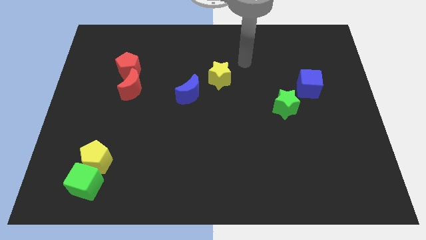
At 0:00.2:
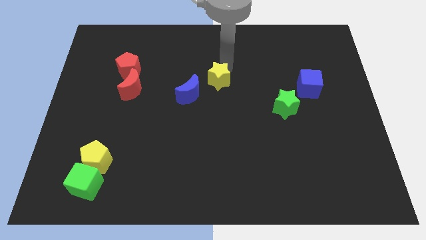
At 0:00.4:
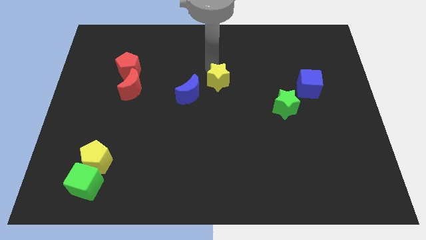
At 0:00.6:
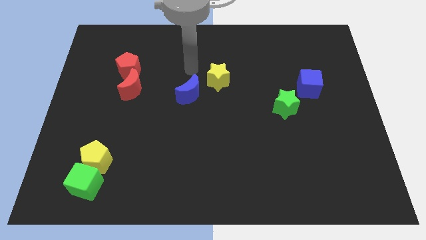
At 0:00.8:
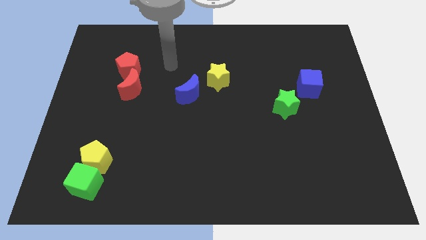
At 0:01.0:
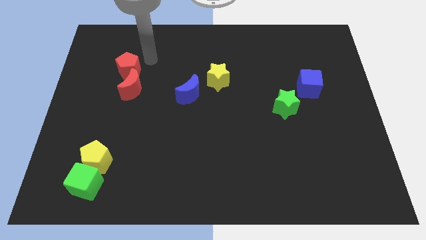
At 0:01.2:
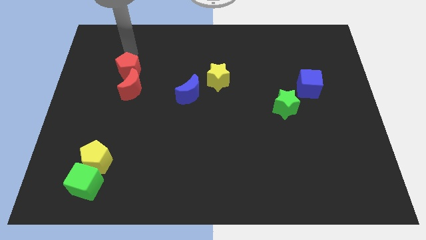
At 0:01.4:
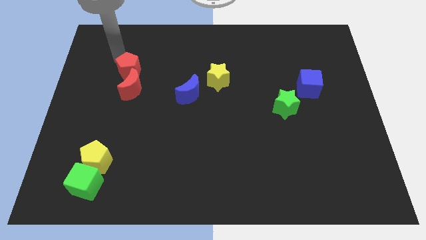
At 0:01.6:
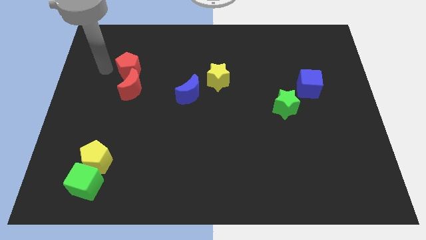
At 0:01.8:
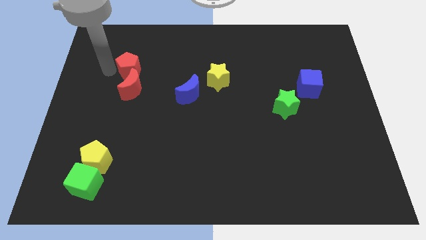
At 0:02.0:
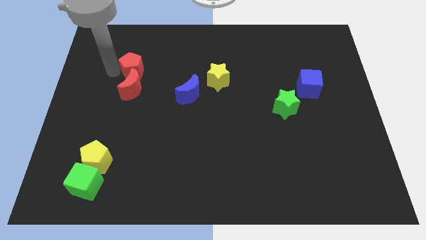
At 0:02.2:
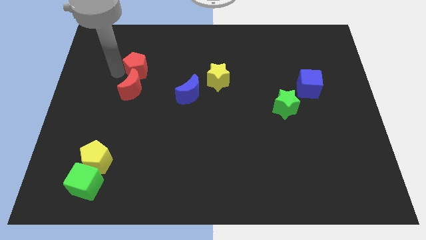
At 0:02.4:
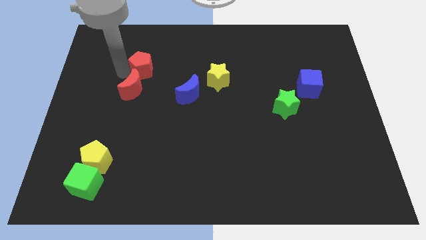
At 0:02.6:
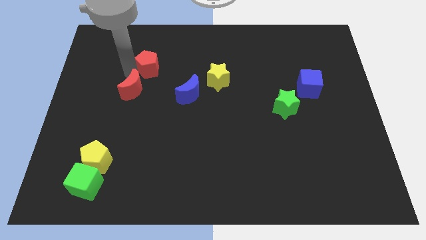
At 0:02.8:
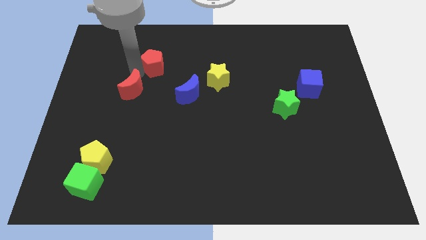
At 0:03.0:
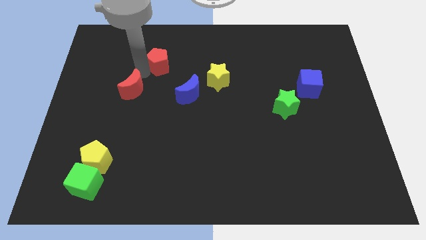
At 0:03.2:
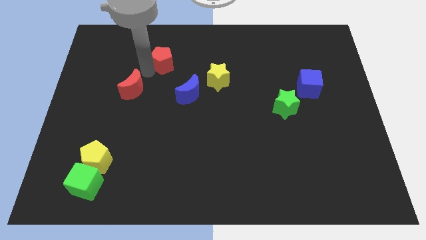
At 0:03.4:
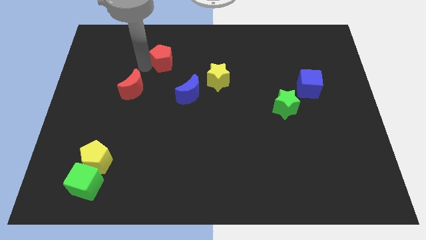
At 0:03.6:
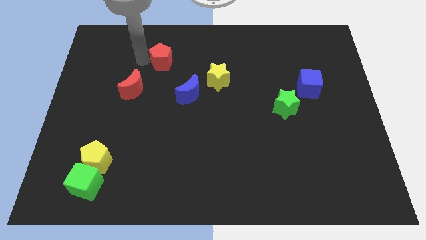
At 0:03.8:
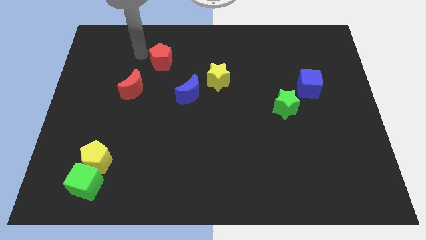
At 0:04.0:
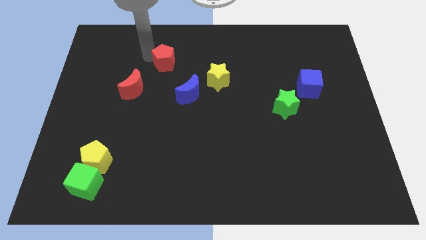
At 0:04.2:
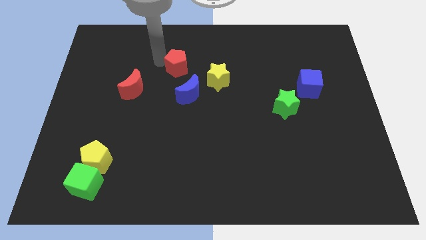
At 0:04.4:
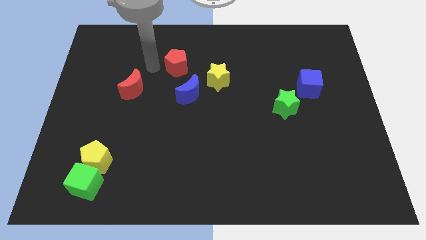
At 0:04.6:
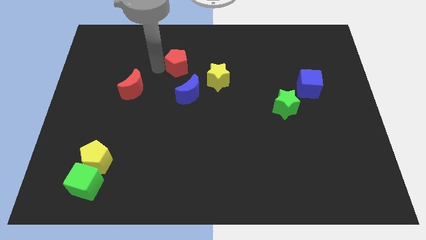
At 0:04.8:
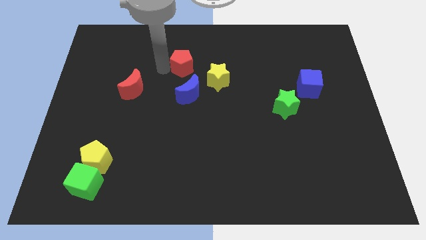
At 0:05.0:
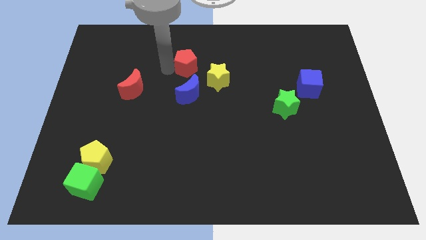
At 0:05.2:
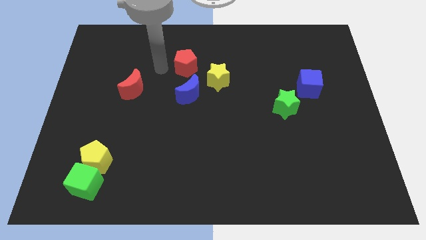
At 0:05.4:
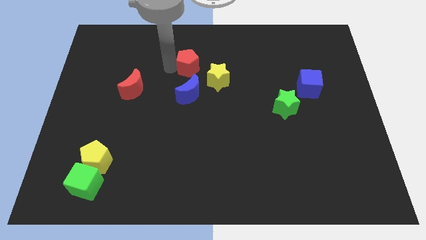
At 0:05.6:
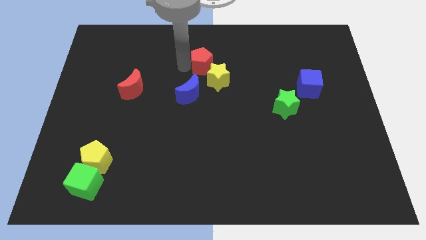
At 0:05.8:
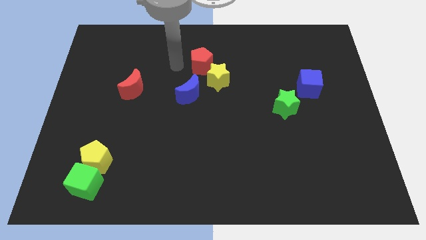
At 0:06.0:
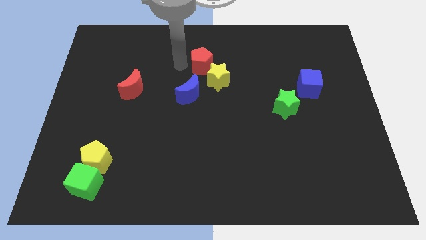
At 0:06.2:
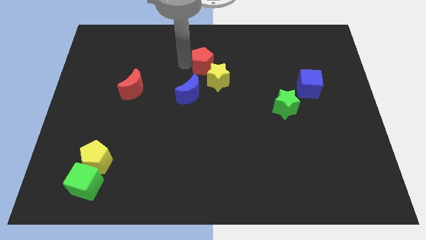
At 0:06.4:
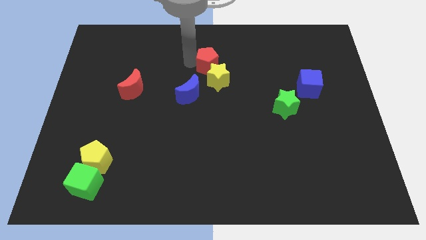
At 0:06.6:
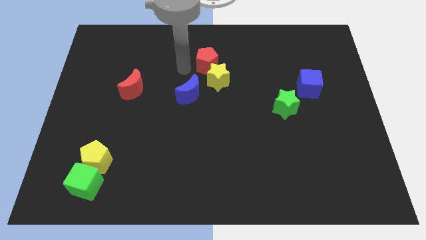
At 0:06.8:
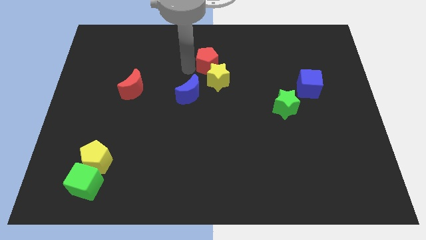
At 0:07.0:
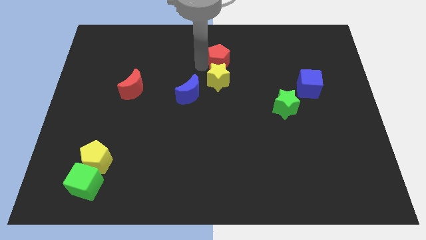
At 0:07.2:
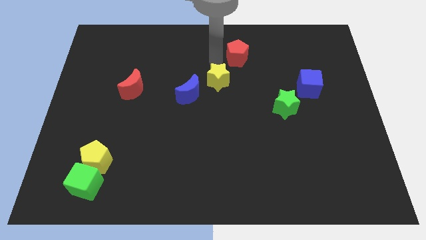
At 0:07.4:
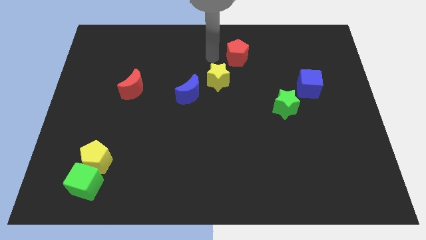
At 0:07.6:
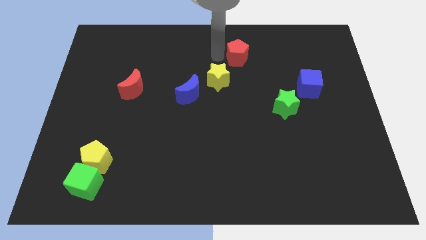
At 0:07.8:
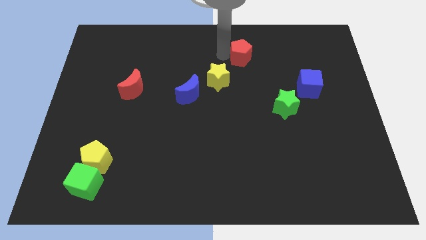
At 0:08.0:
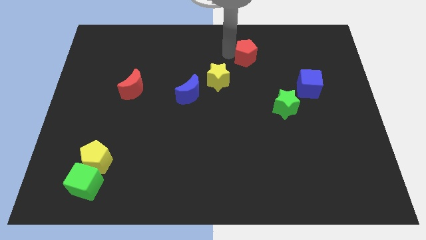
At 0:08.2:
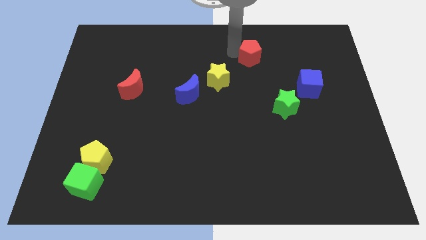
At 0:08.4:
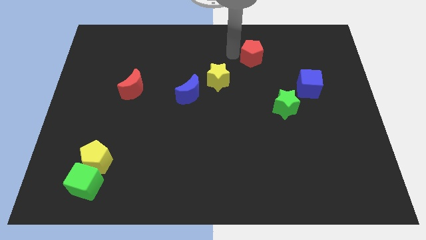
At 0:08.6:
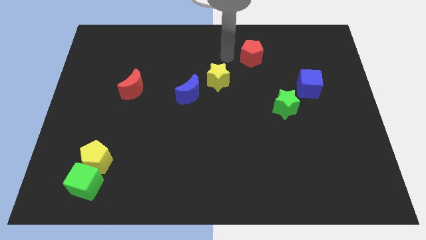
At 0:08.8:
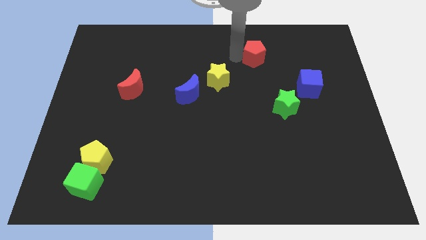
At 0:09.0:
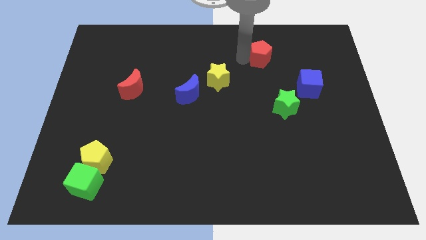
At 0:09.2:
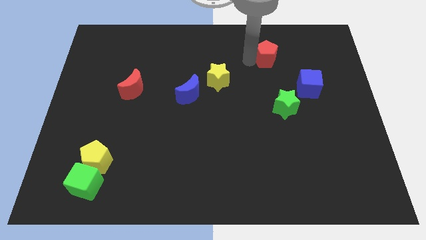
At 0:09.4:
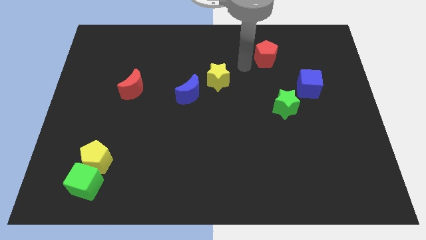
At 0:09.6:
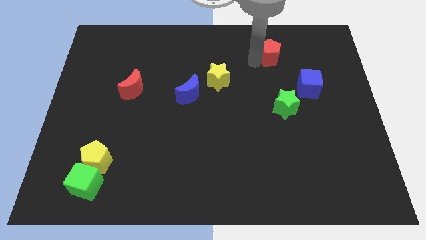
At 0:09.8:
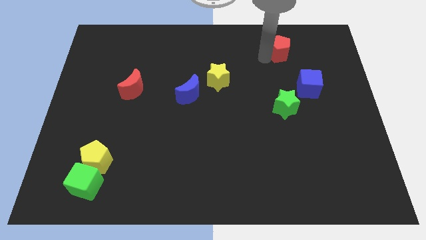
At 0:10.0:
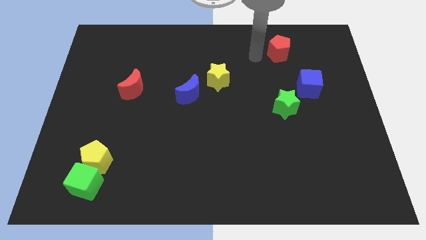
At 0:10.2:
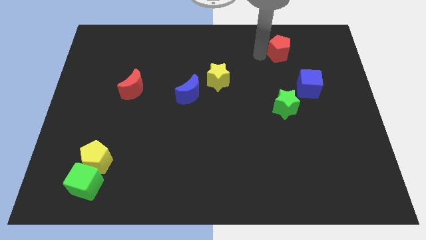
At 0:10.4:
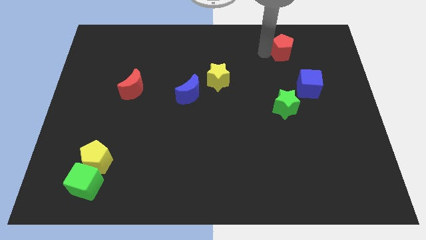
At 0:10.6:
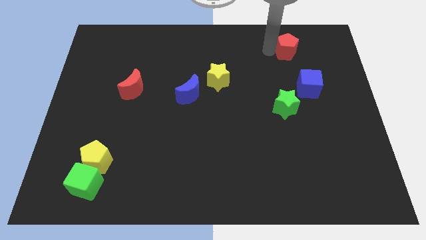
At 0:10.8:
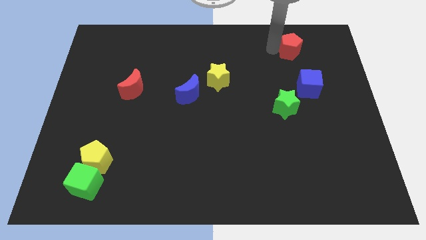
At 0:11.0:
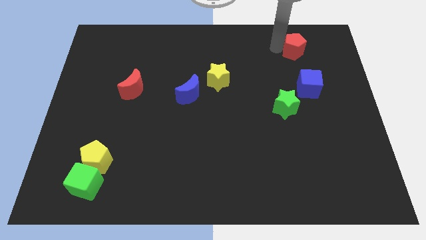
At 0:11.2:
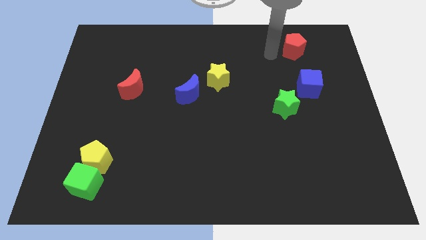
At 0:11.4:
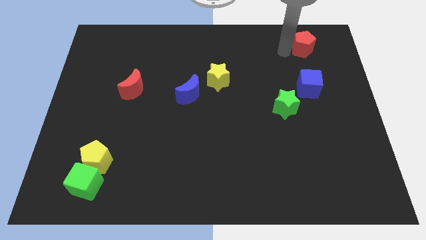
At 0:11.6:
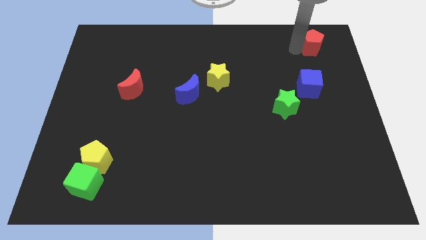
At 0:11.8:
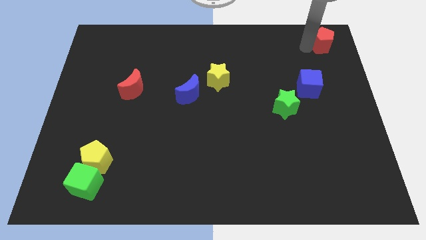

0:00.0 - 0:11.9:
push the red pentagon to the top right

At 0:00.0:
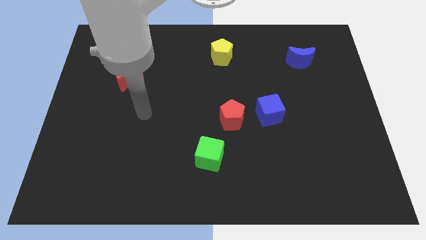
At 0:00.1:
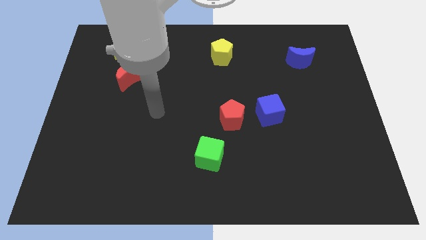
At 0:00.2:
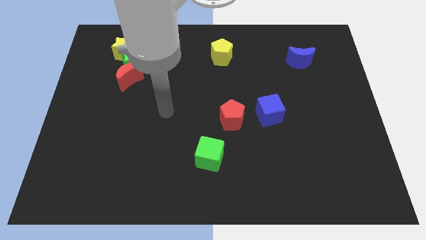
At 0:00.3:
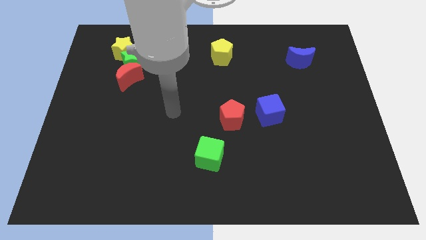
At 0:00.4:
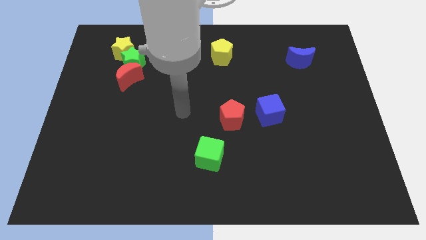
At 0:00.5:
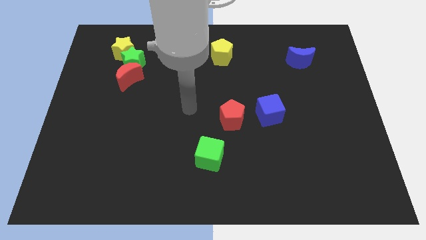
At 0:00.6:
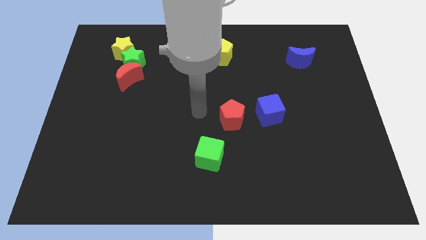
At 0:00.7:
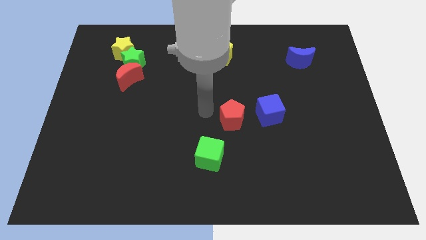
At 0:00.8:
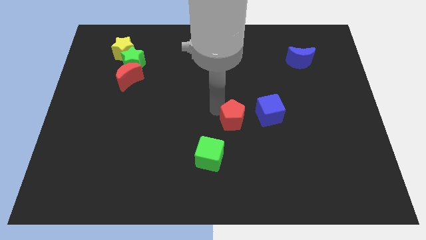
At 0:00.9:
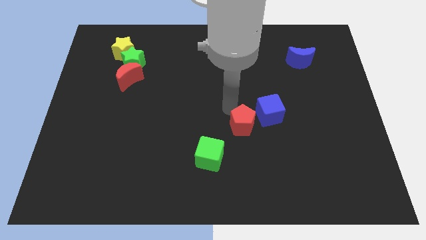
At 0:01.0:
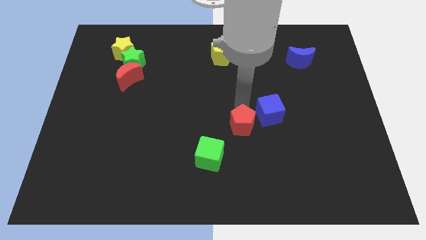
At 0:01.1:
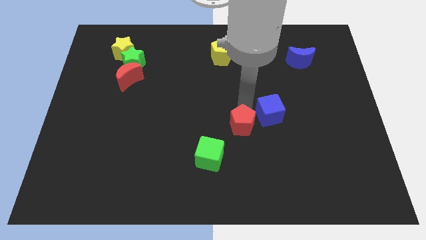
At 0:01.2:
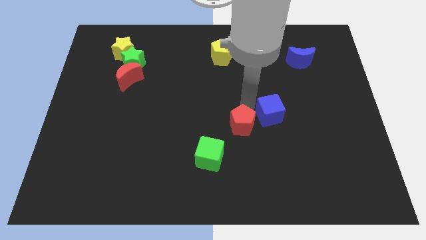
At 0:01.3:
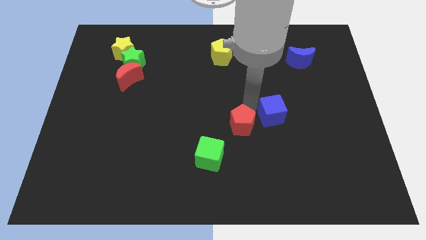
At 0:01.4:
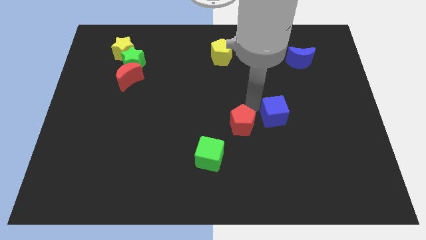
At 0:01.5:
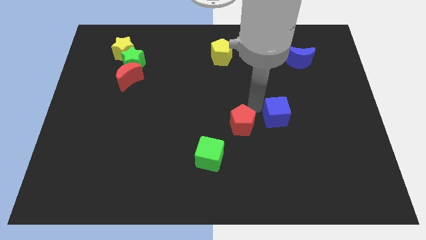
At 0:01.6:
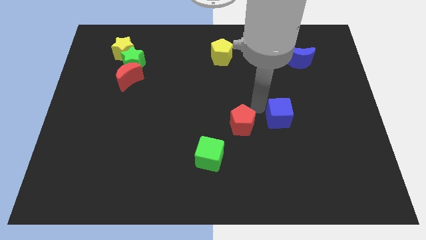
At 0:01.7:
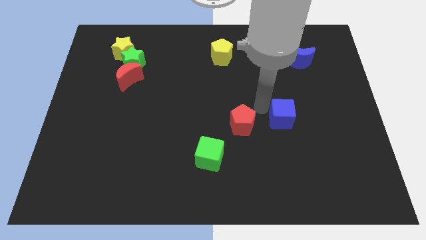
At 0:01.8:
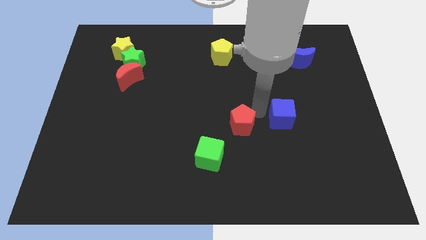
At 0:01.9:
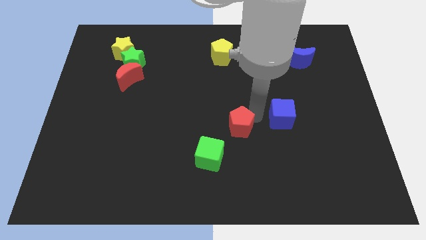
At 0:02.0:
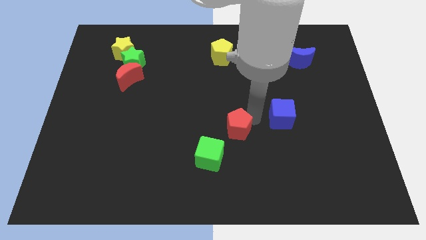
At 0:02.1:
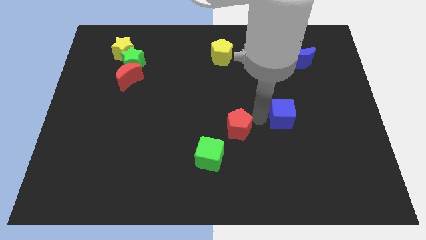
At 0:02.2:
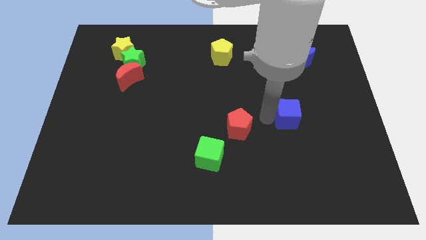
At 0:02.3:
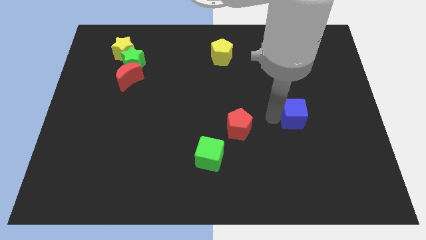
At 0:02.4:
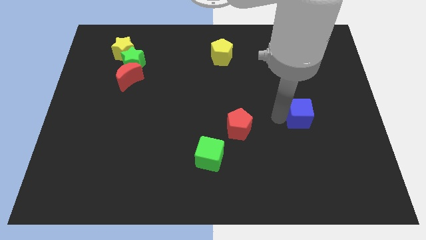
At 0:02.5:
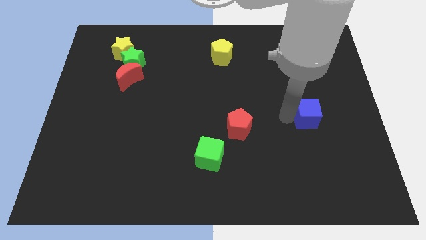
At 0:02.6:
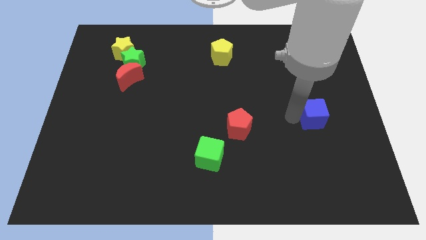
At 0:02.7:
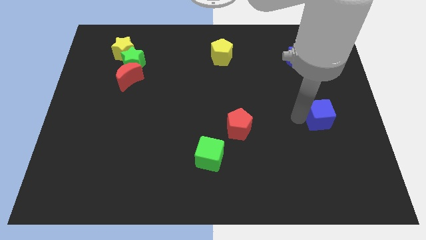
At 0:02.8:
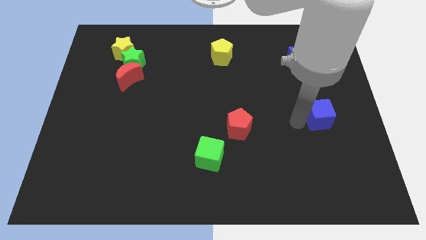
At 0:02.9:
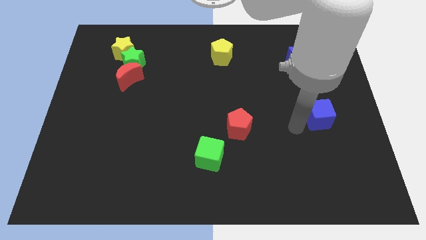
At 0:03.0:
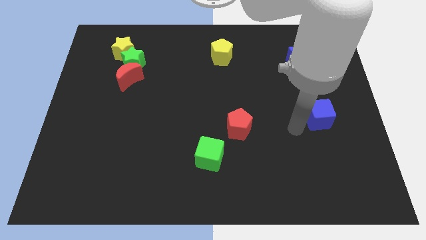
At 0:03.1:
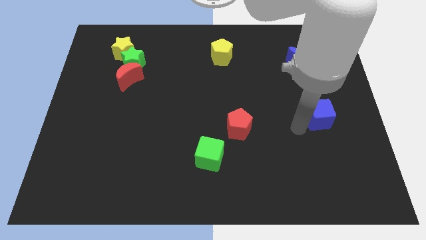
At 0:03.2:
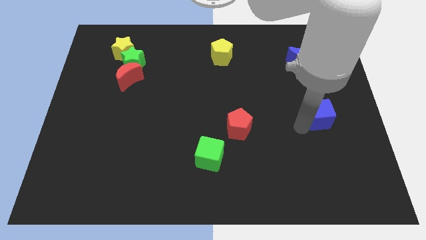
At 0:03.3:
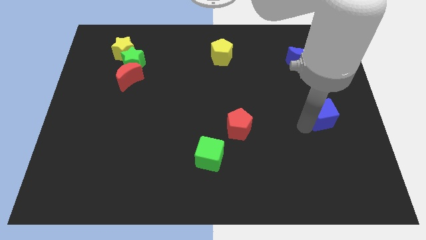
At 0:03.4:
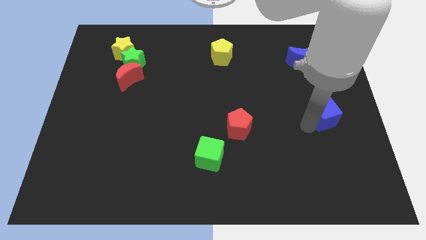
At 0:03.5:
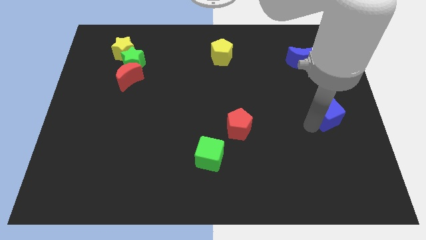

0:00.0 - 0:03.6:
move the blue cube to the right side of the board
